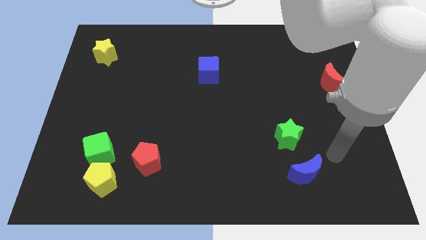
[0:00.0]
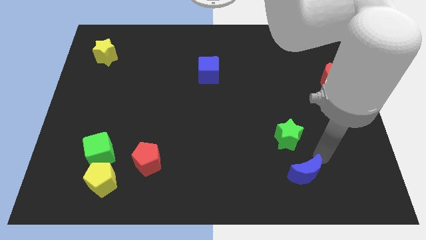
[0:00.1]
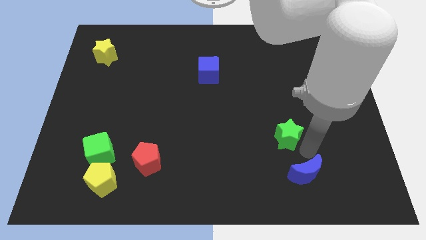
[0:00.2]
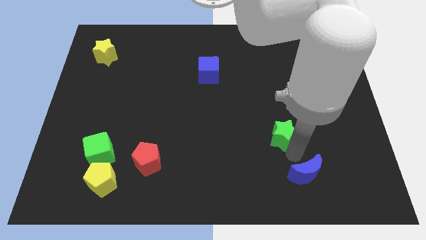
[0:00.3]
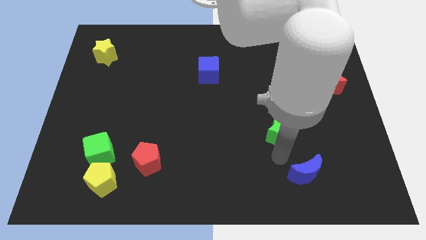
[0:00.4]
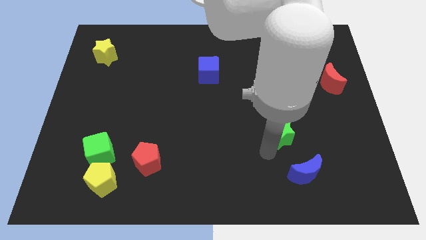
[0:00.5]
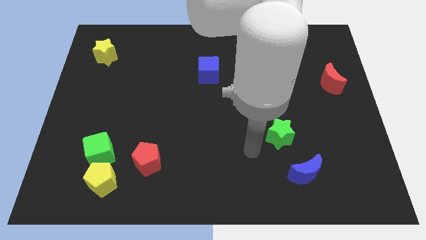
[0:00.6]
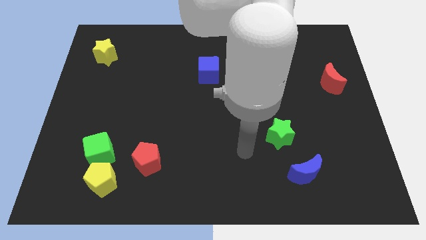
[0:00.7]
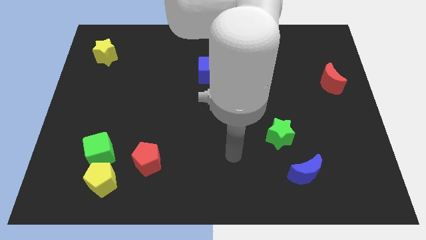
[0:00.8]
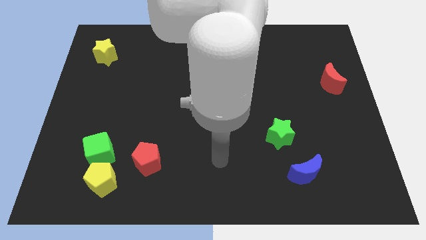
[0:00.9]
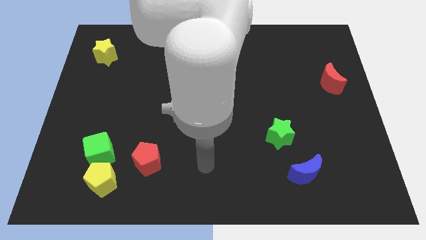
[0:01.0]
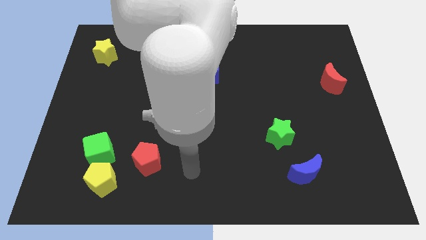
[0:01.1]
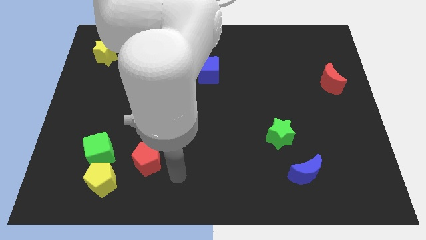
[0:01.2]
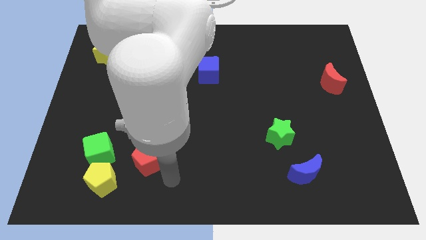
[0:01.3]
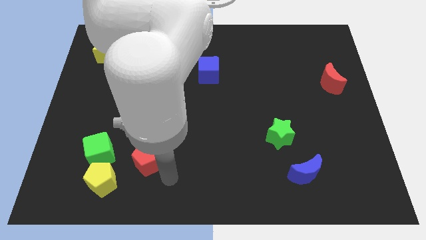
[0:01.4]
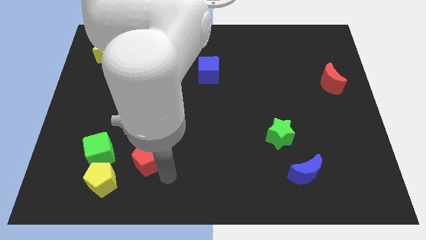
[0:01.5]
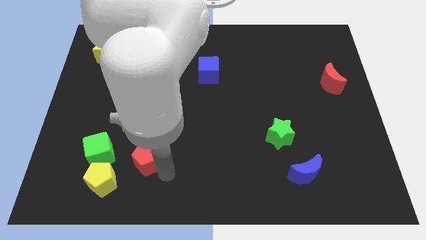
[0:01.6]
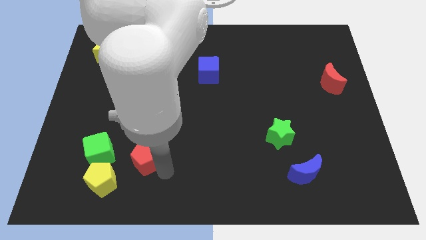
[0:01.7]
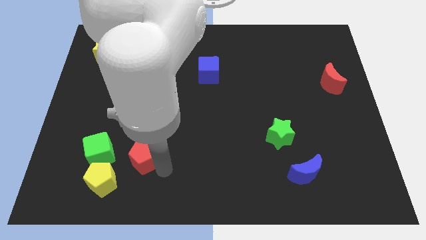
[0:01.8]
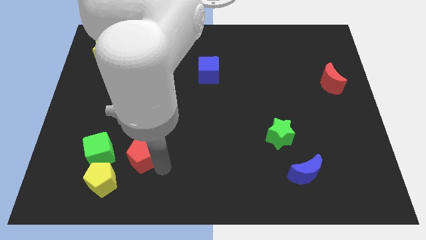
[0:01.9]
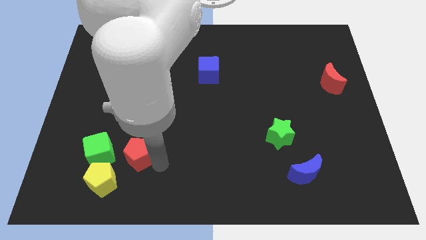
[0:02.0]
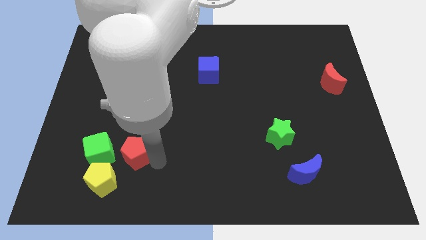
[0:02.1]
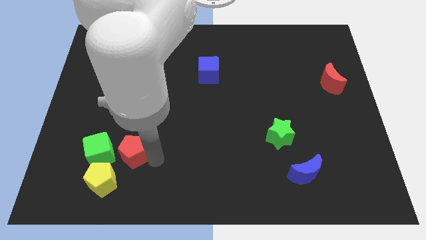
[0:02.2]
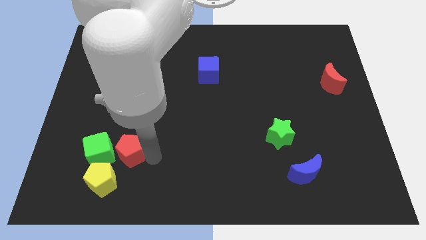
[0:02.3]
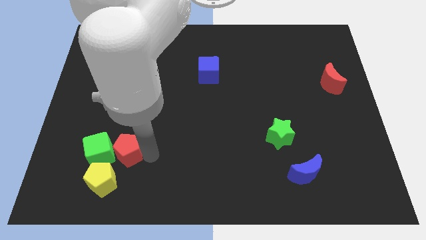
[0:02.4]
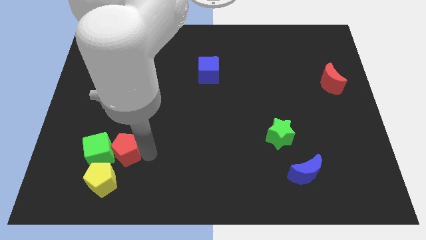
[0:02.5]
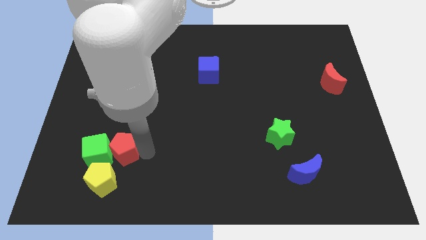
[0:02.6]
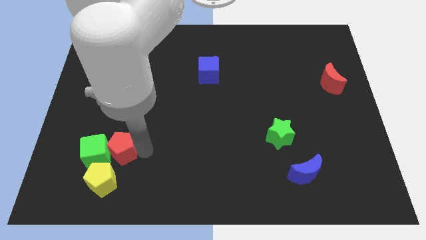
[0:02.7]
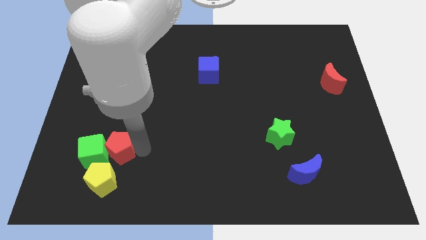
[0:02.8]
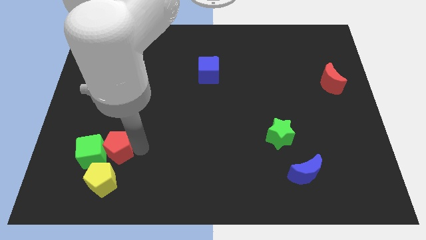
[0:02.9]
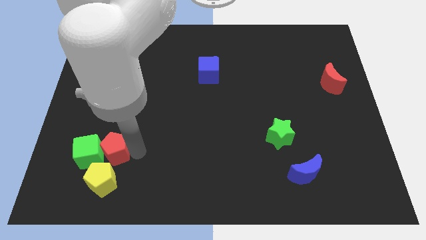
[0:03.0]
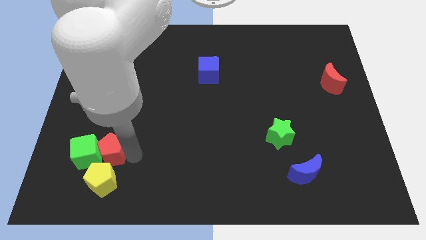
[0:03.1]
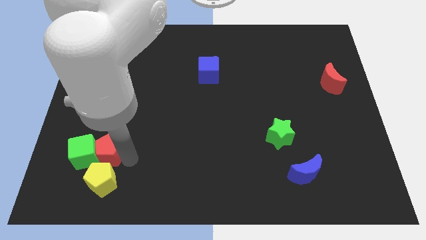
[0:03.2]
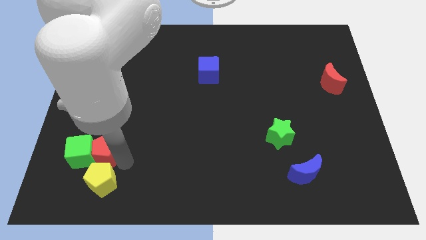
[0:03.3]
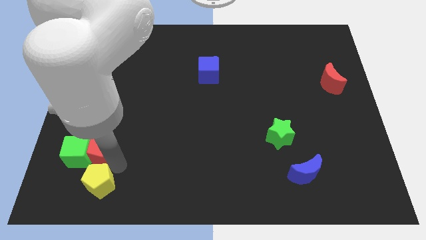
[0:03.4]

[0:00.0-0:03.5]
move the red pentagon a little bit upwards and left diagonally

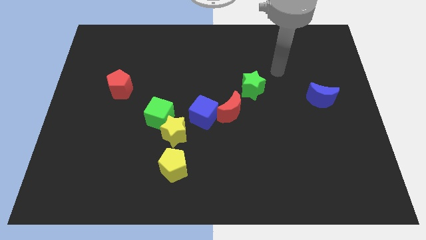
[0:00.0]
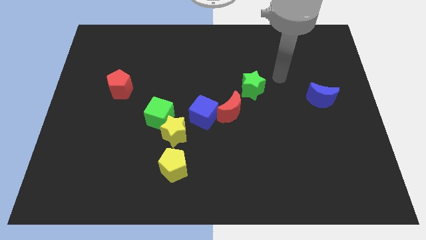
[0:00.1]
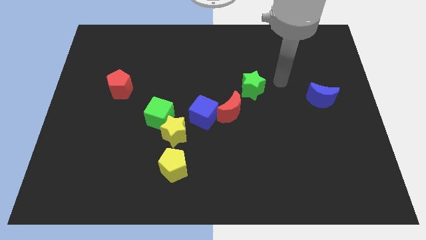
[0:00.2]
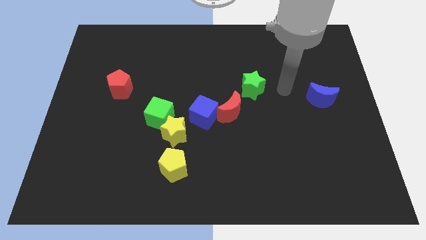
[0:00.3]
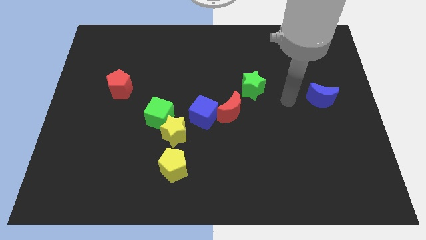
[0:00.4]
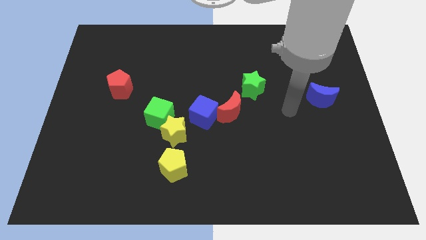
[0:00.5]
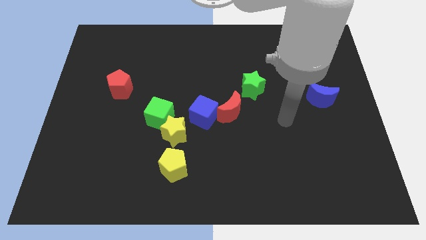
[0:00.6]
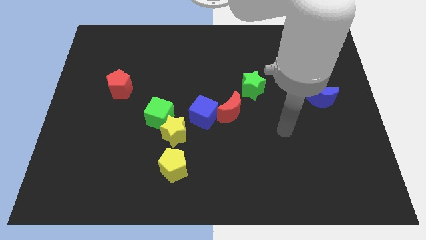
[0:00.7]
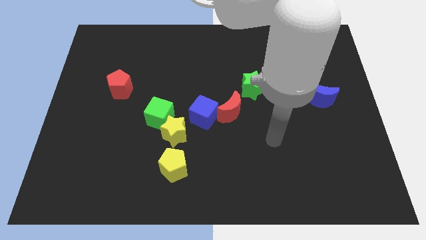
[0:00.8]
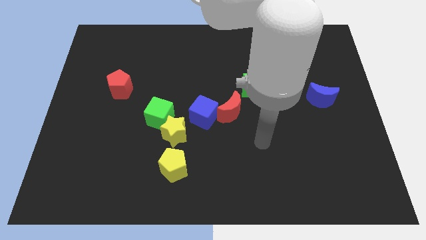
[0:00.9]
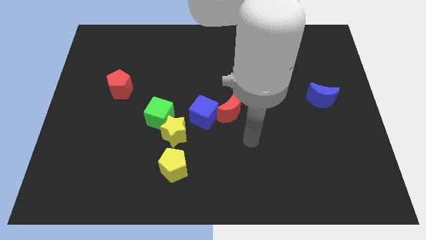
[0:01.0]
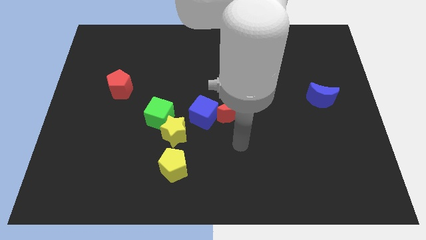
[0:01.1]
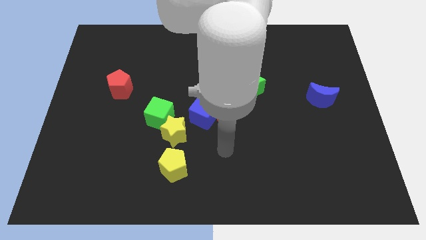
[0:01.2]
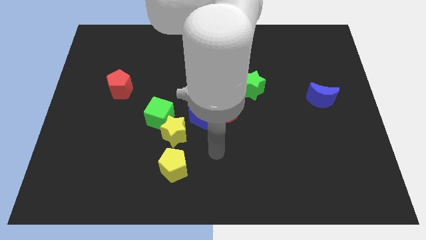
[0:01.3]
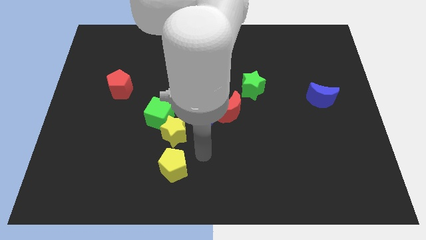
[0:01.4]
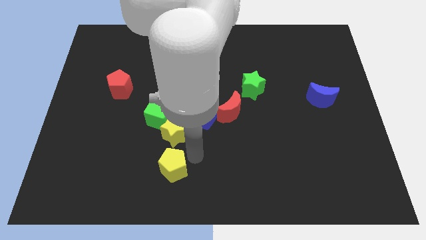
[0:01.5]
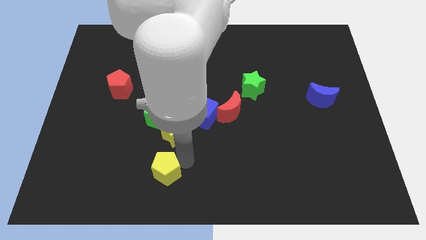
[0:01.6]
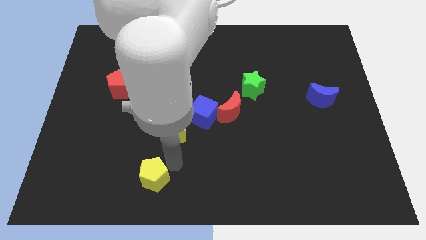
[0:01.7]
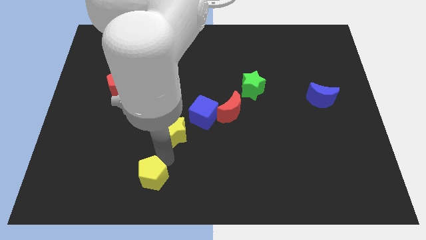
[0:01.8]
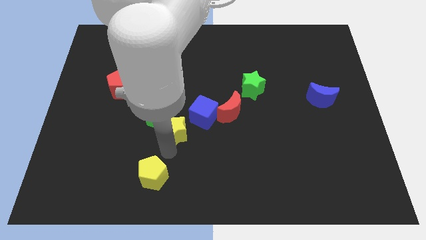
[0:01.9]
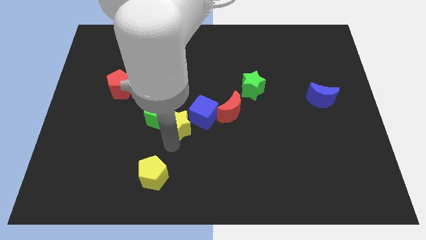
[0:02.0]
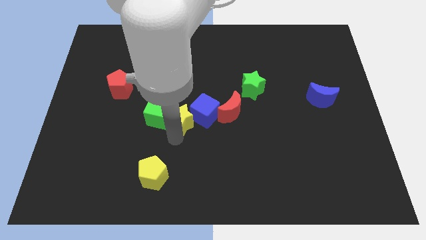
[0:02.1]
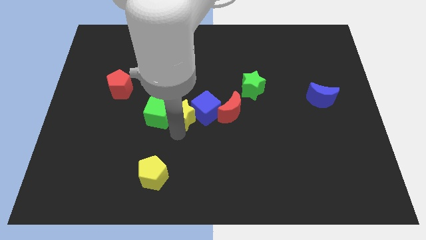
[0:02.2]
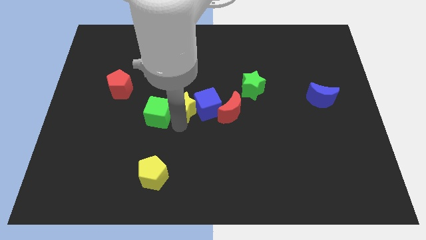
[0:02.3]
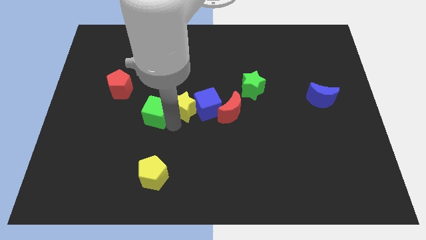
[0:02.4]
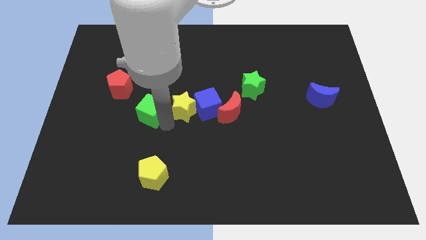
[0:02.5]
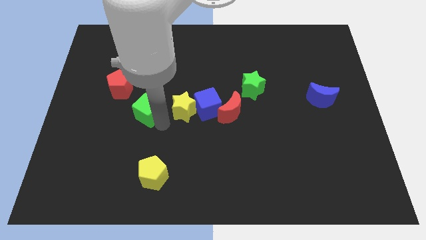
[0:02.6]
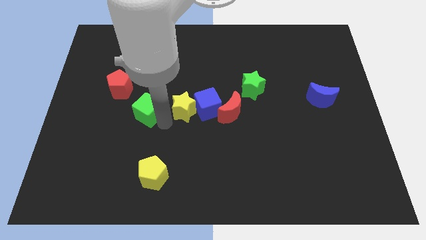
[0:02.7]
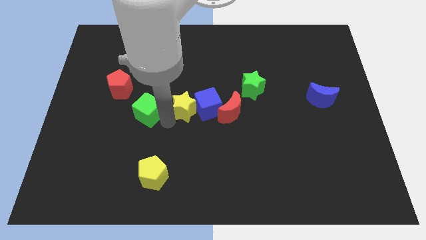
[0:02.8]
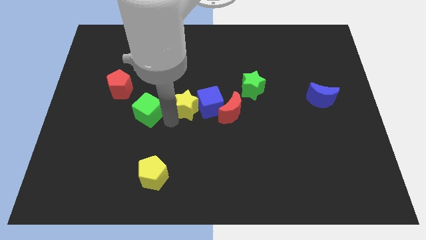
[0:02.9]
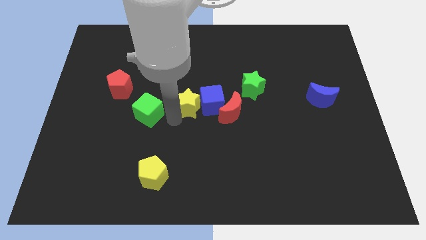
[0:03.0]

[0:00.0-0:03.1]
push the yellow star slightly up and then to the right

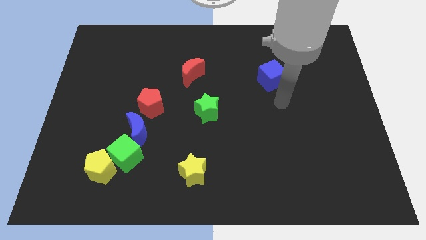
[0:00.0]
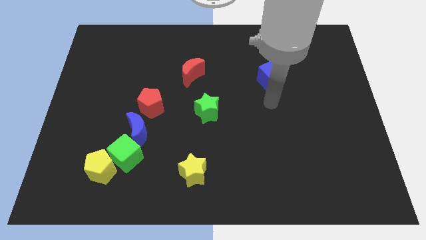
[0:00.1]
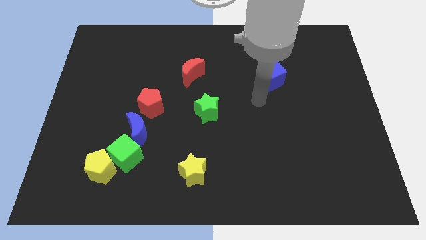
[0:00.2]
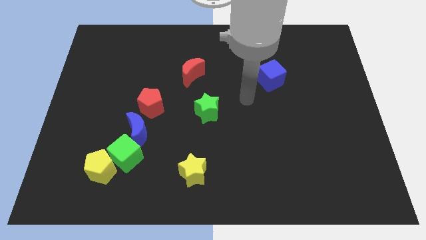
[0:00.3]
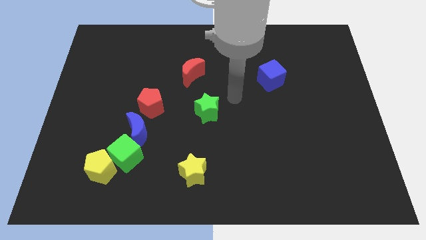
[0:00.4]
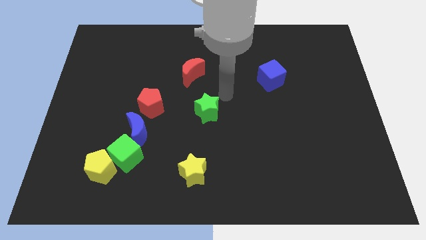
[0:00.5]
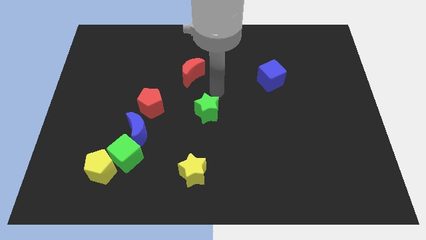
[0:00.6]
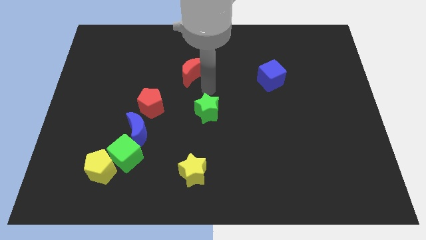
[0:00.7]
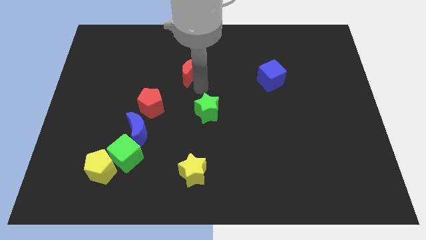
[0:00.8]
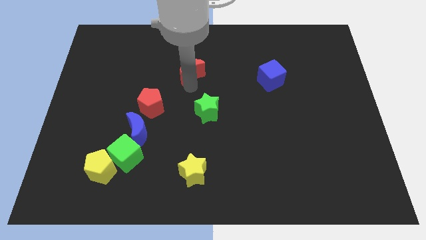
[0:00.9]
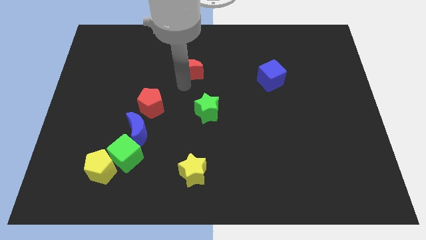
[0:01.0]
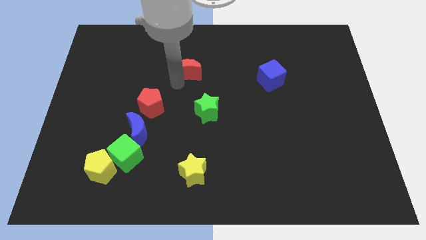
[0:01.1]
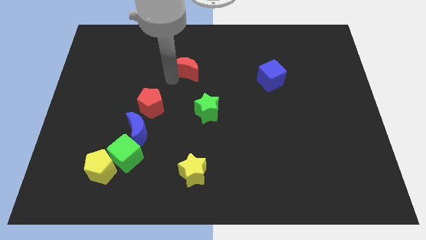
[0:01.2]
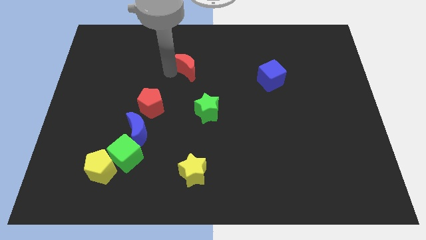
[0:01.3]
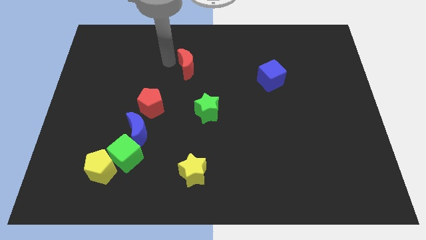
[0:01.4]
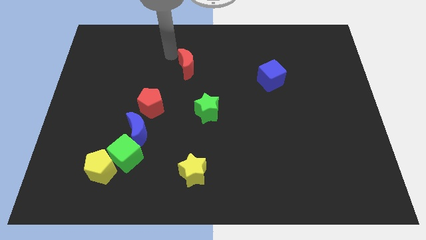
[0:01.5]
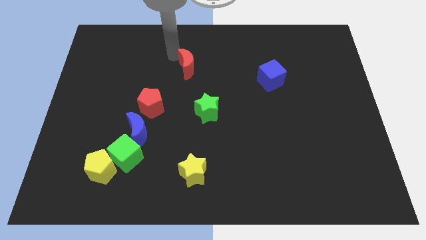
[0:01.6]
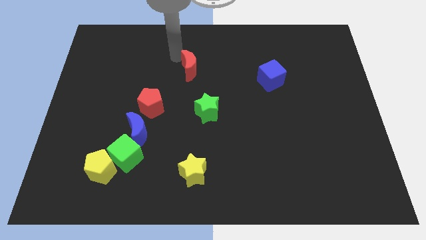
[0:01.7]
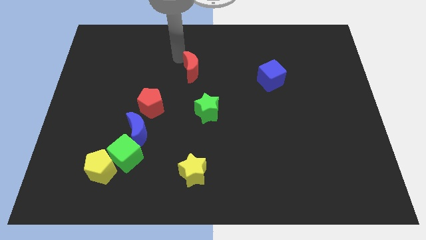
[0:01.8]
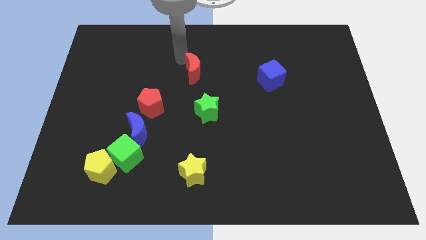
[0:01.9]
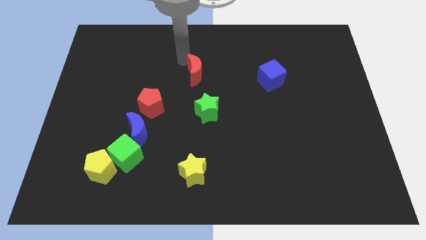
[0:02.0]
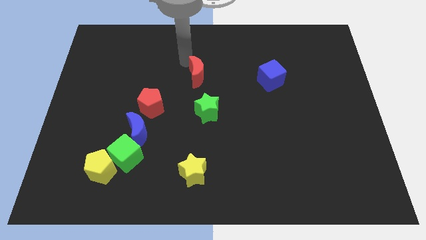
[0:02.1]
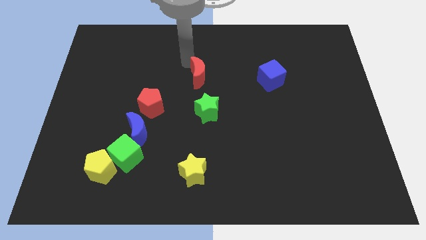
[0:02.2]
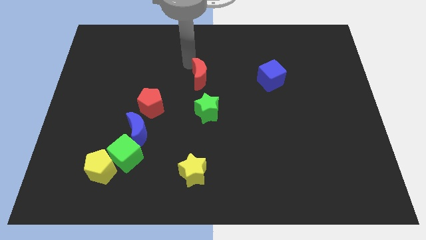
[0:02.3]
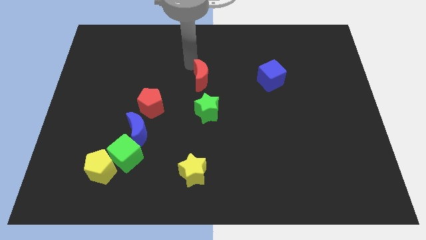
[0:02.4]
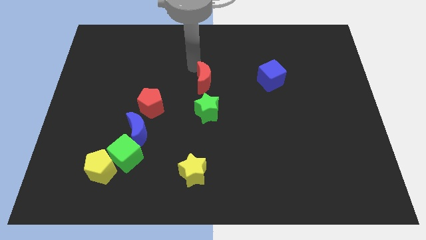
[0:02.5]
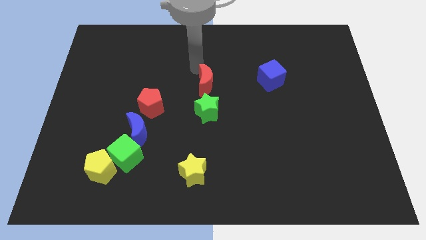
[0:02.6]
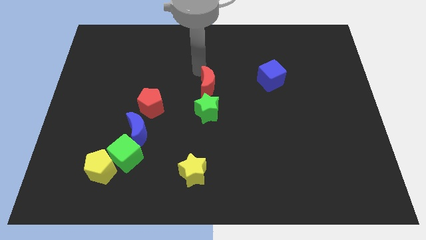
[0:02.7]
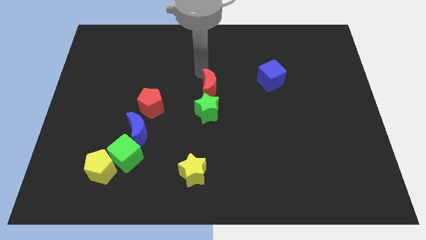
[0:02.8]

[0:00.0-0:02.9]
slightly push the red moon down and then to the right
